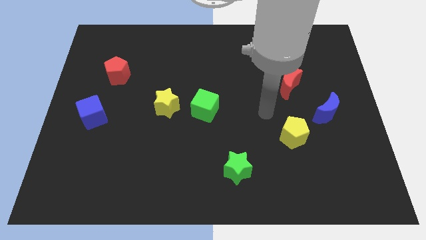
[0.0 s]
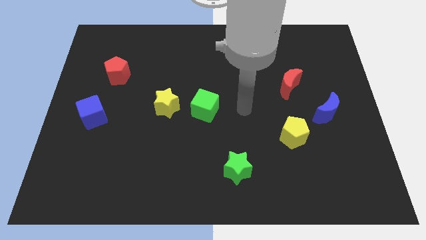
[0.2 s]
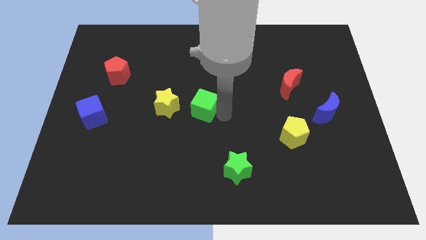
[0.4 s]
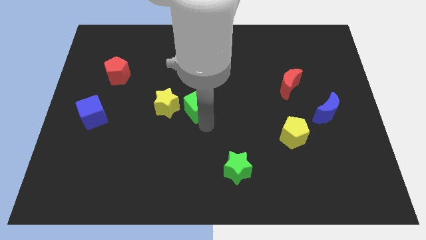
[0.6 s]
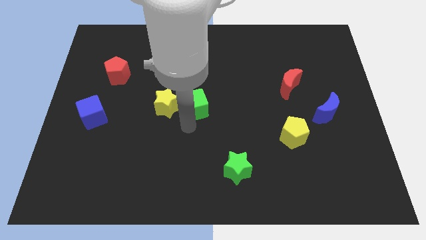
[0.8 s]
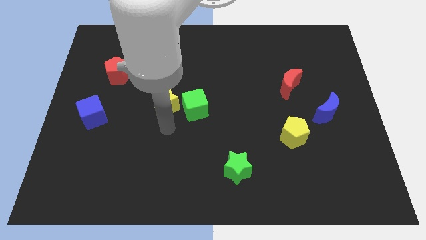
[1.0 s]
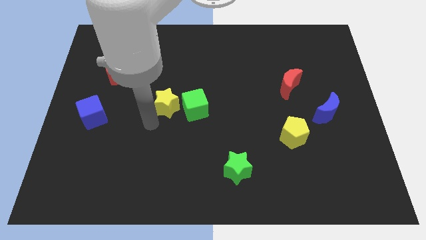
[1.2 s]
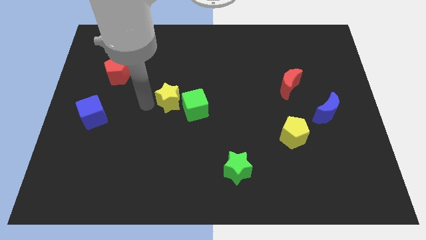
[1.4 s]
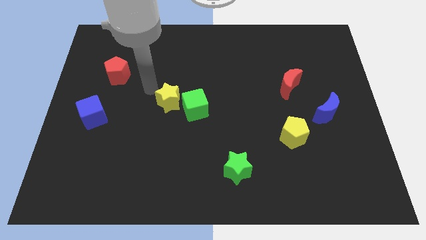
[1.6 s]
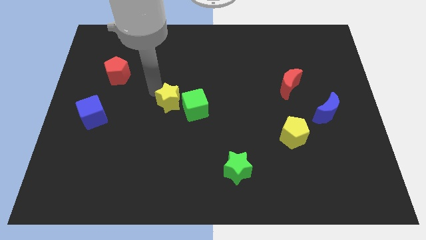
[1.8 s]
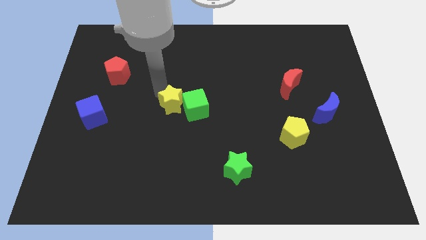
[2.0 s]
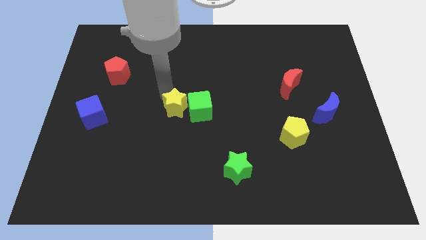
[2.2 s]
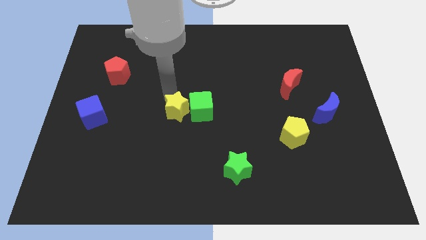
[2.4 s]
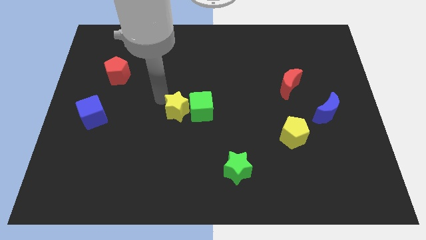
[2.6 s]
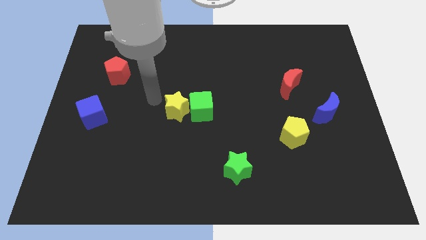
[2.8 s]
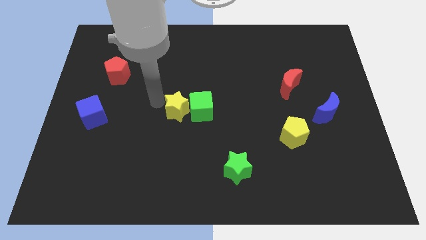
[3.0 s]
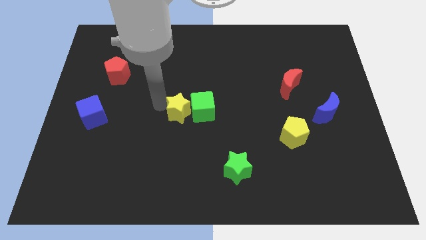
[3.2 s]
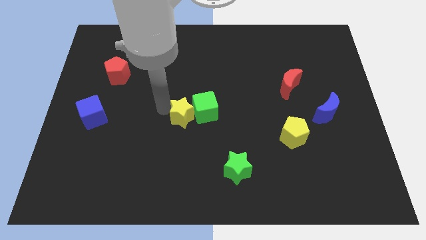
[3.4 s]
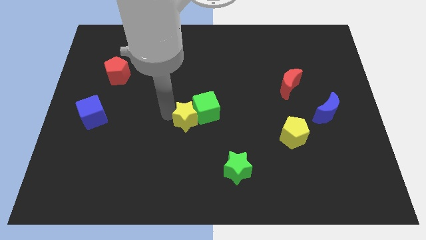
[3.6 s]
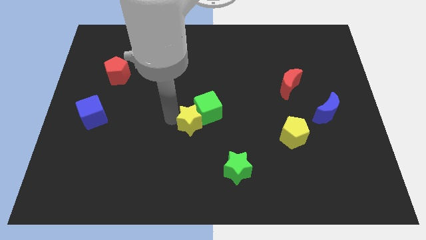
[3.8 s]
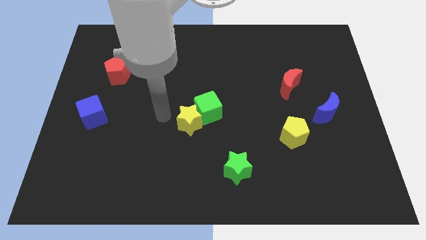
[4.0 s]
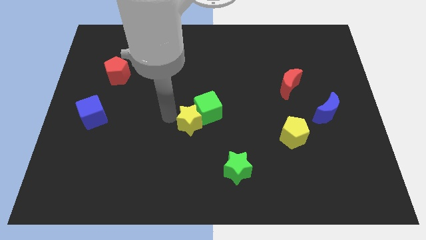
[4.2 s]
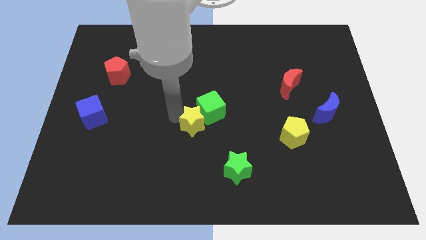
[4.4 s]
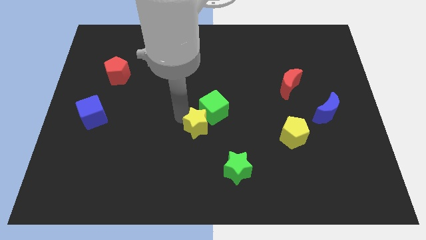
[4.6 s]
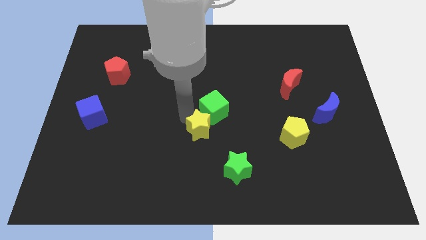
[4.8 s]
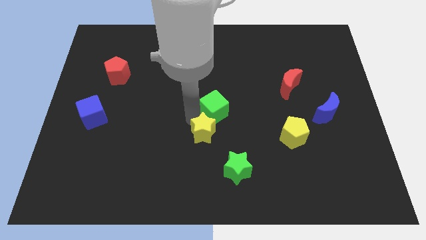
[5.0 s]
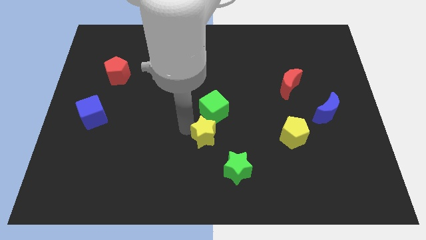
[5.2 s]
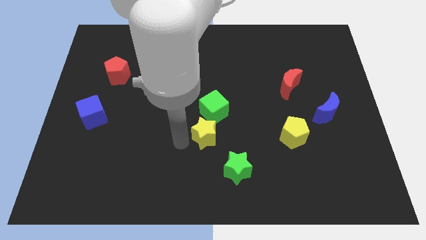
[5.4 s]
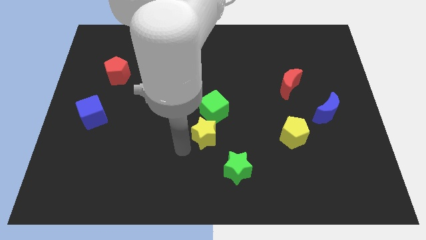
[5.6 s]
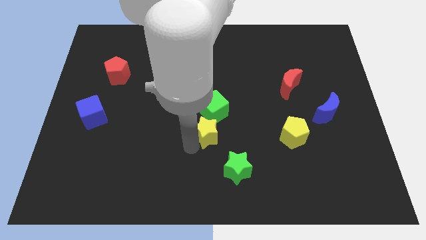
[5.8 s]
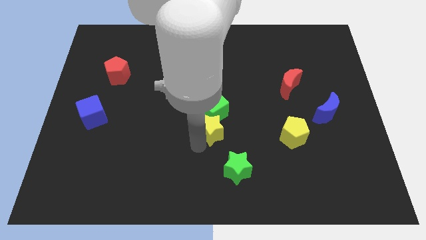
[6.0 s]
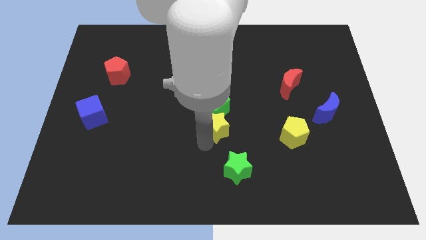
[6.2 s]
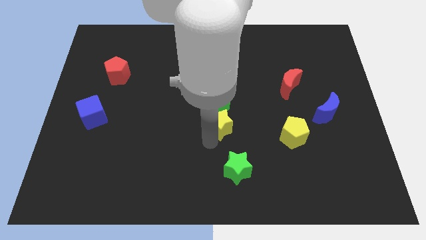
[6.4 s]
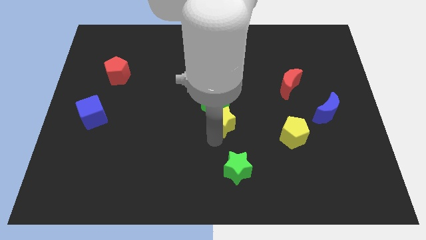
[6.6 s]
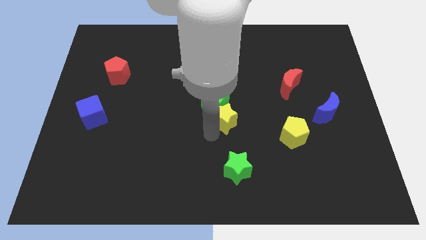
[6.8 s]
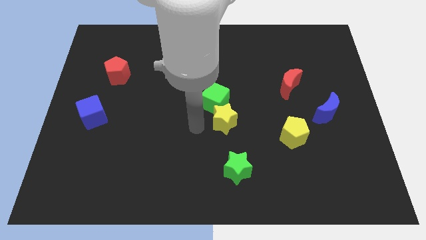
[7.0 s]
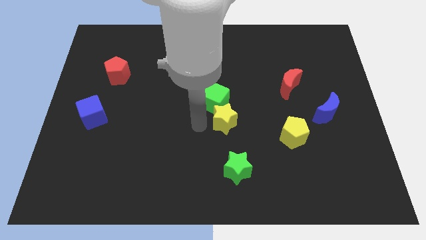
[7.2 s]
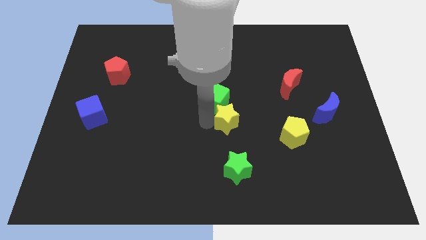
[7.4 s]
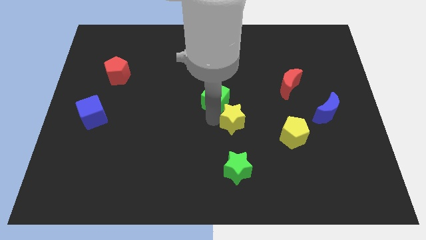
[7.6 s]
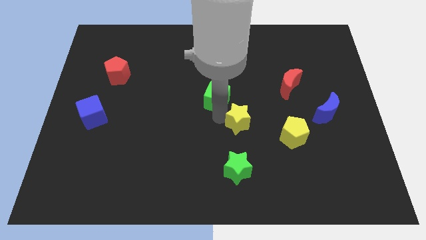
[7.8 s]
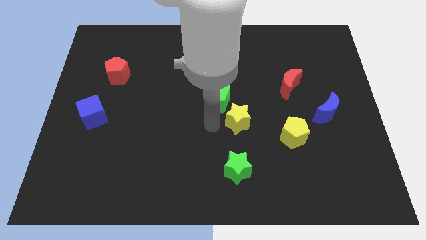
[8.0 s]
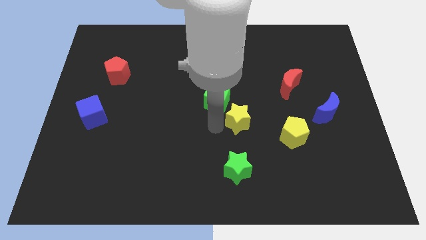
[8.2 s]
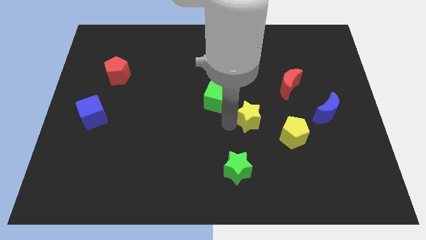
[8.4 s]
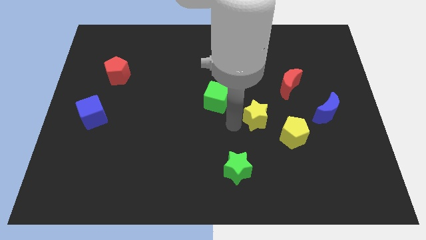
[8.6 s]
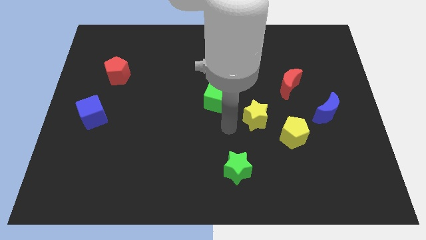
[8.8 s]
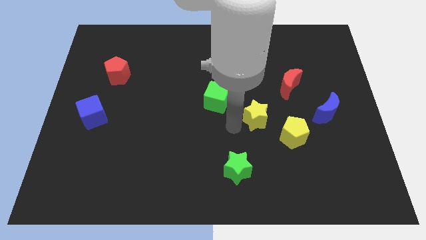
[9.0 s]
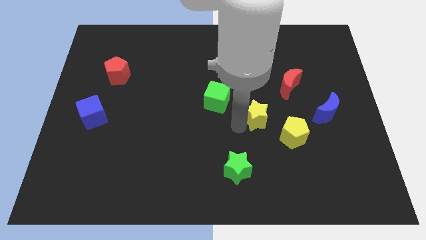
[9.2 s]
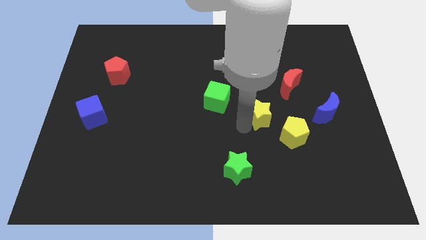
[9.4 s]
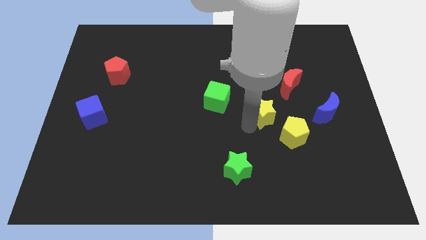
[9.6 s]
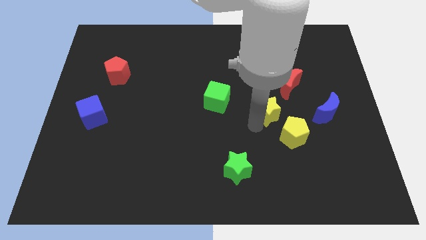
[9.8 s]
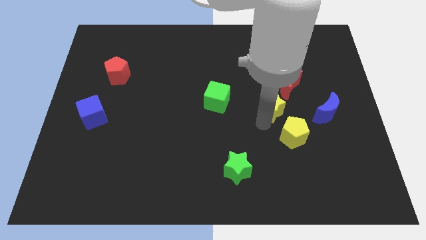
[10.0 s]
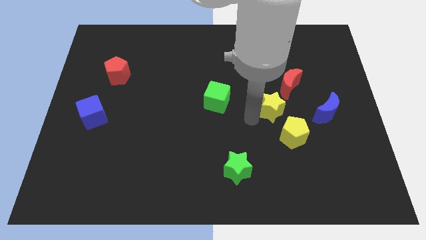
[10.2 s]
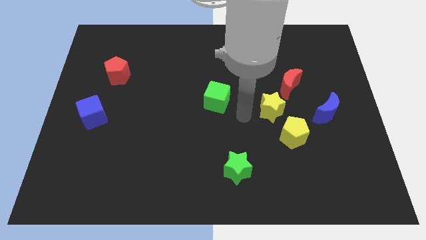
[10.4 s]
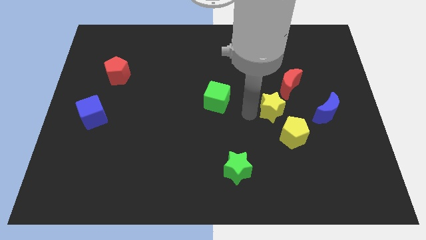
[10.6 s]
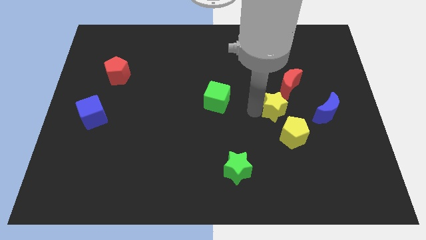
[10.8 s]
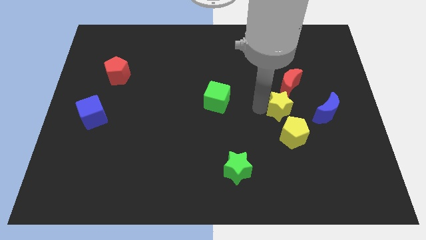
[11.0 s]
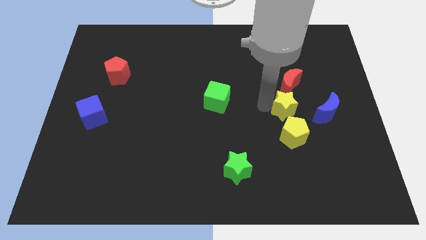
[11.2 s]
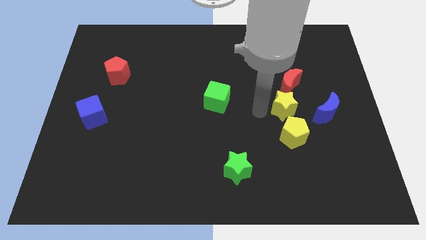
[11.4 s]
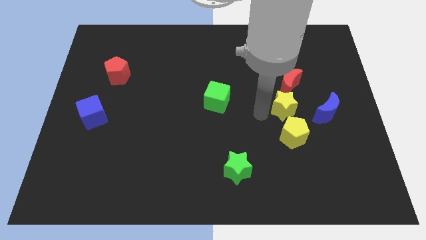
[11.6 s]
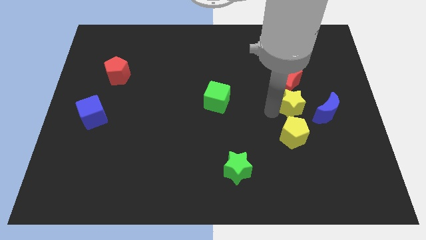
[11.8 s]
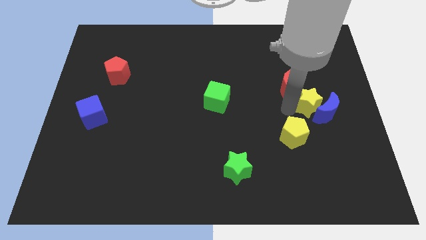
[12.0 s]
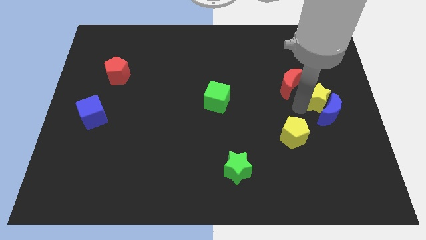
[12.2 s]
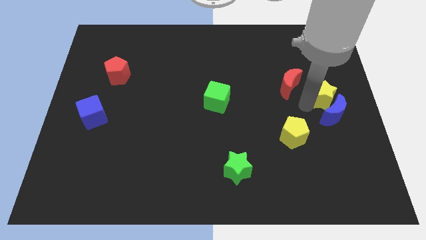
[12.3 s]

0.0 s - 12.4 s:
move the yellow star to the right side
